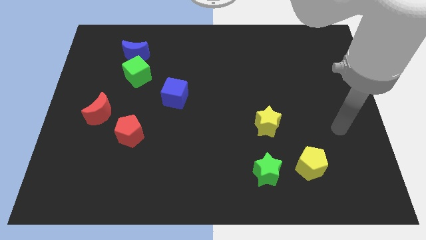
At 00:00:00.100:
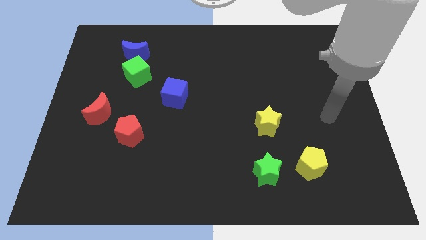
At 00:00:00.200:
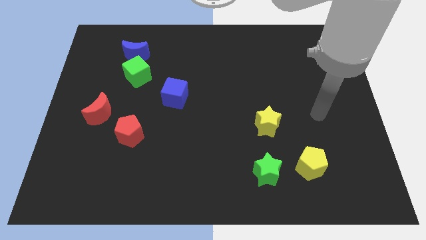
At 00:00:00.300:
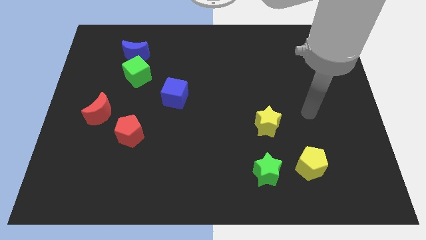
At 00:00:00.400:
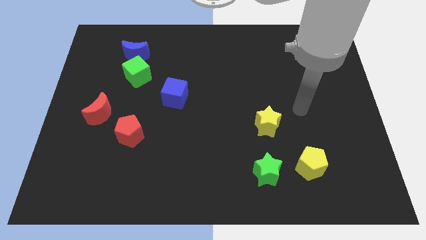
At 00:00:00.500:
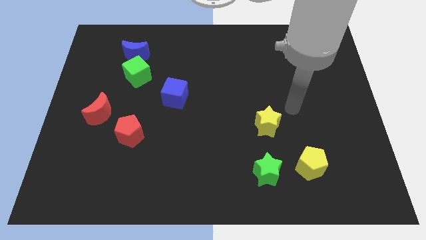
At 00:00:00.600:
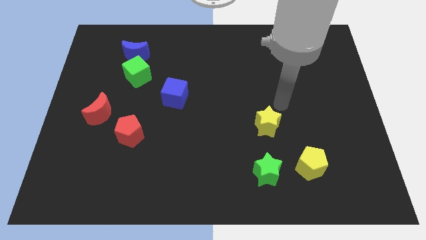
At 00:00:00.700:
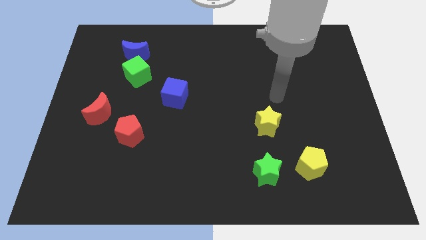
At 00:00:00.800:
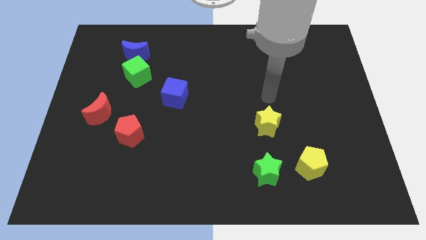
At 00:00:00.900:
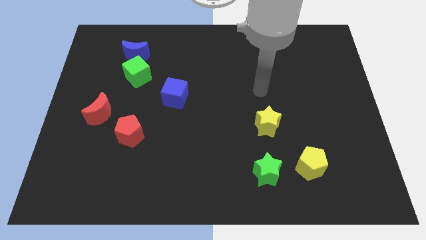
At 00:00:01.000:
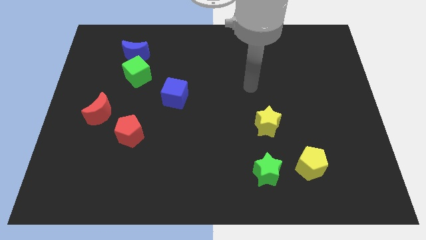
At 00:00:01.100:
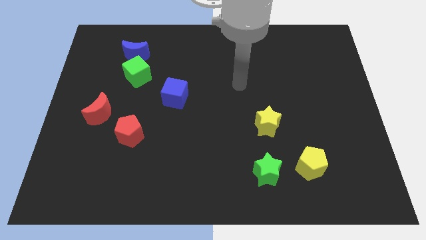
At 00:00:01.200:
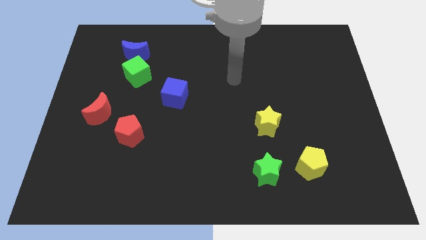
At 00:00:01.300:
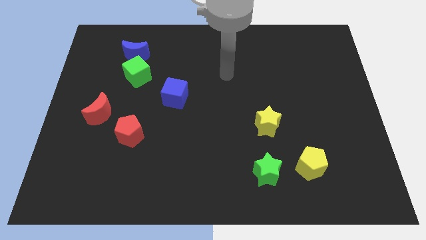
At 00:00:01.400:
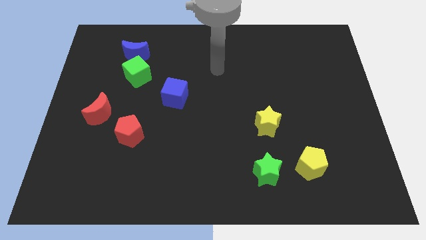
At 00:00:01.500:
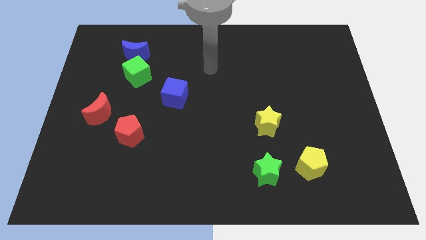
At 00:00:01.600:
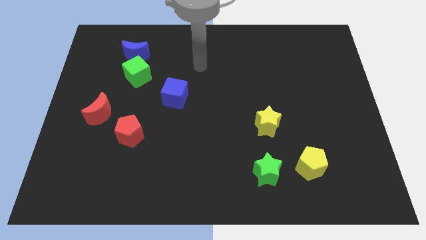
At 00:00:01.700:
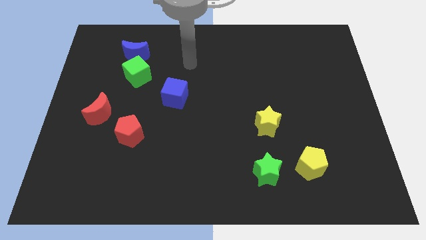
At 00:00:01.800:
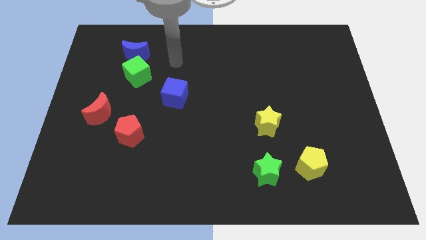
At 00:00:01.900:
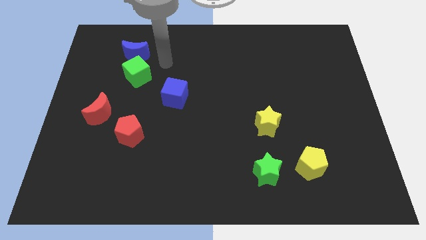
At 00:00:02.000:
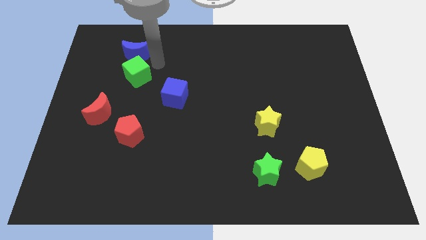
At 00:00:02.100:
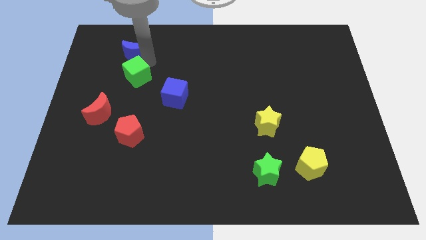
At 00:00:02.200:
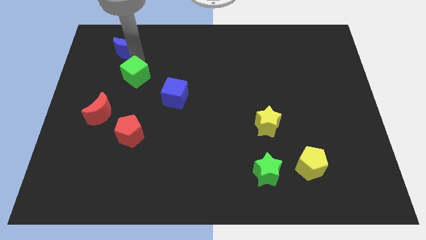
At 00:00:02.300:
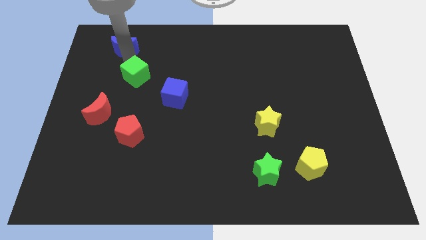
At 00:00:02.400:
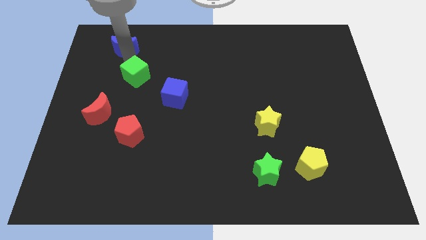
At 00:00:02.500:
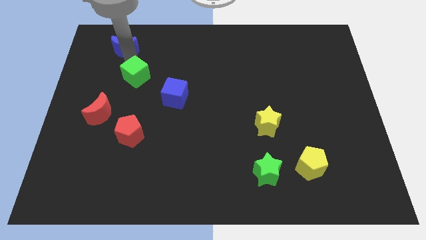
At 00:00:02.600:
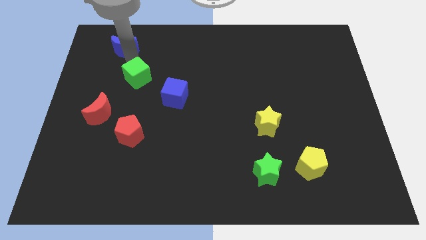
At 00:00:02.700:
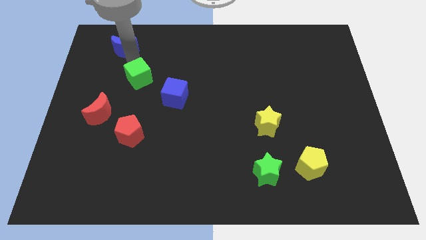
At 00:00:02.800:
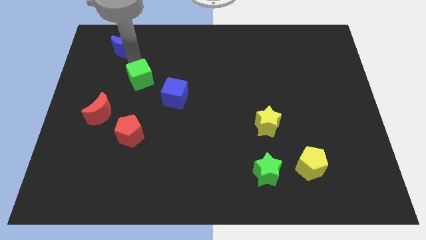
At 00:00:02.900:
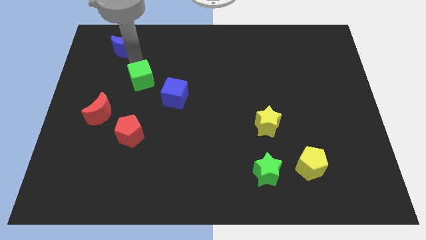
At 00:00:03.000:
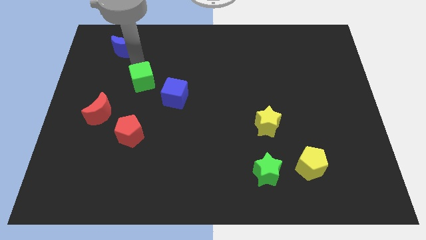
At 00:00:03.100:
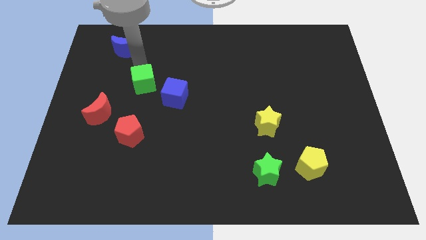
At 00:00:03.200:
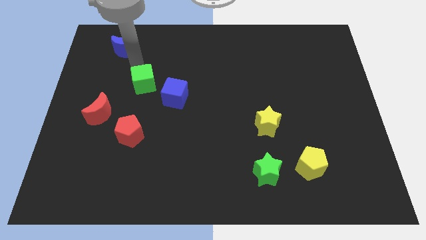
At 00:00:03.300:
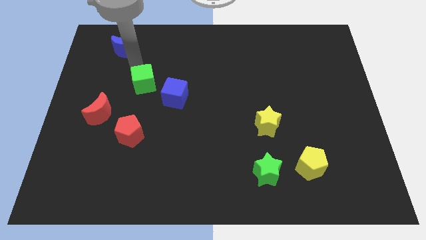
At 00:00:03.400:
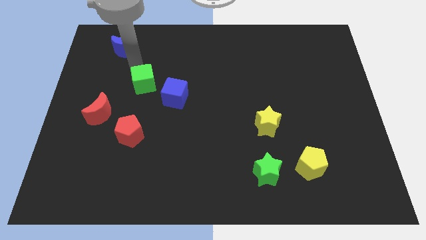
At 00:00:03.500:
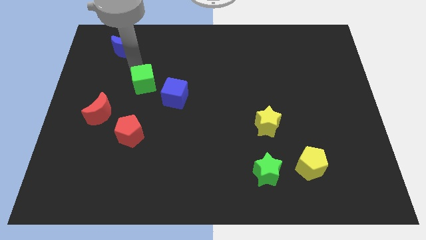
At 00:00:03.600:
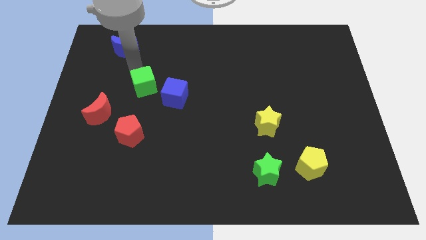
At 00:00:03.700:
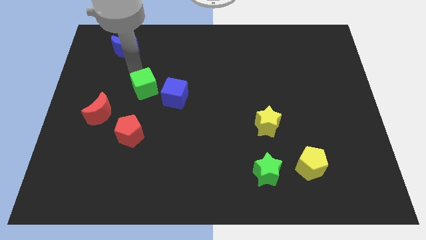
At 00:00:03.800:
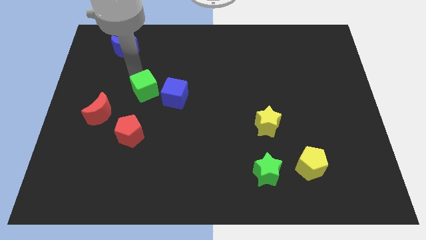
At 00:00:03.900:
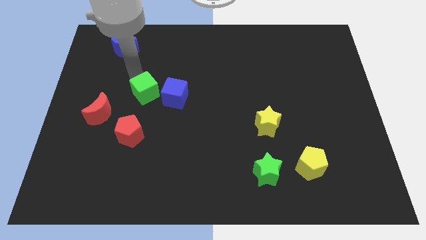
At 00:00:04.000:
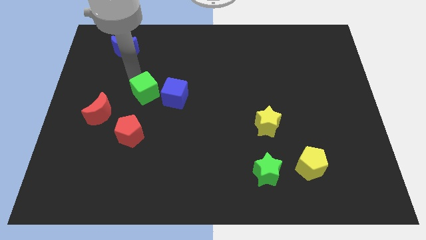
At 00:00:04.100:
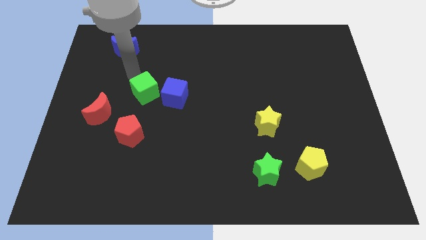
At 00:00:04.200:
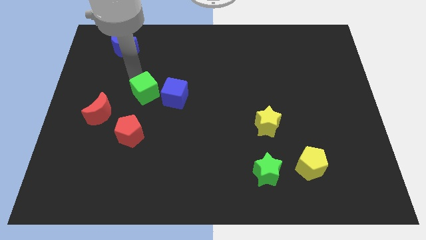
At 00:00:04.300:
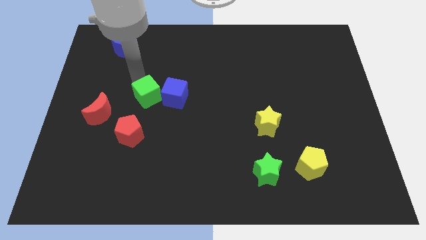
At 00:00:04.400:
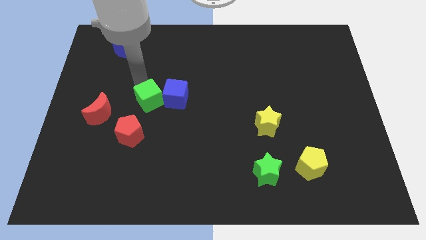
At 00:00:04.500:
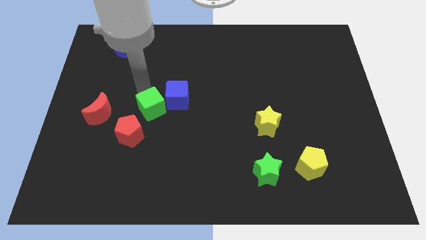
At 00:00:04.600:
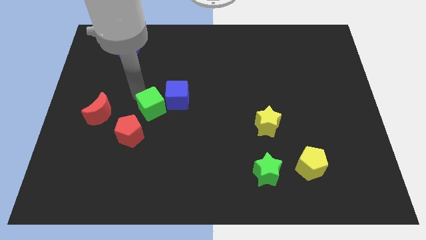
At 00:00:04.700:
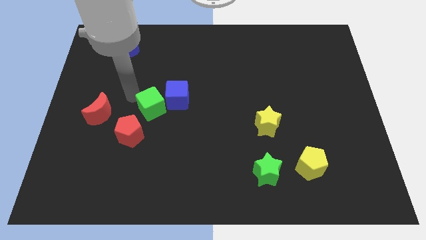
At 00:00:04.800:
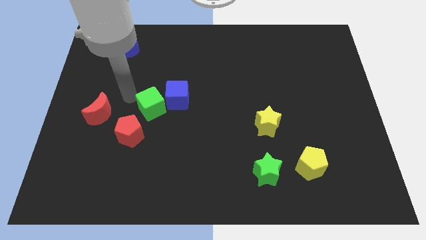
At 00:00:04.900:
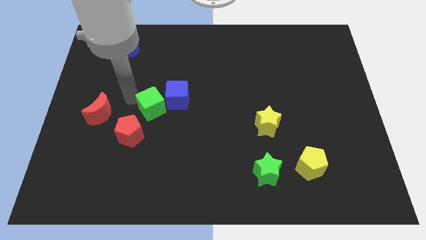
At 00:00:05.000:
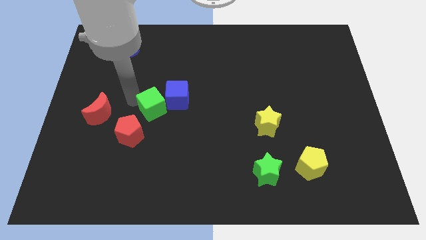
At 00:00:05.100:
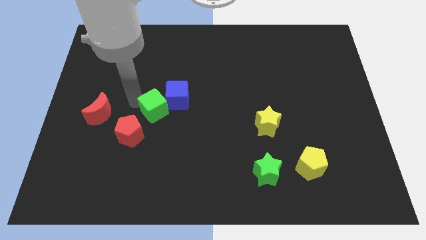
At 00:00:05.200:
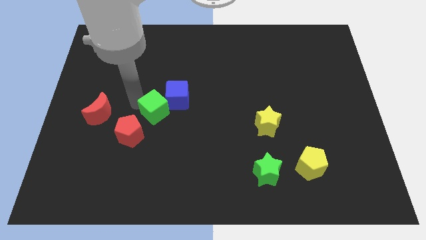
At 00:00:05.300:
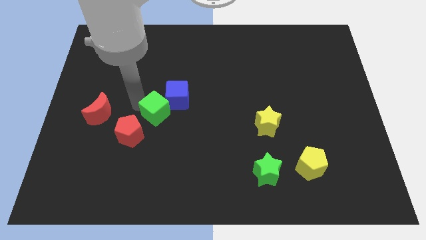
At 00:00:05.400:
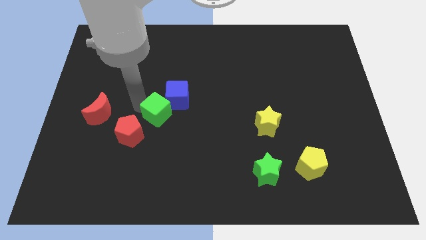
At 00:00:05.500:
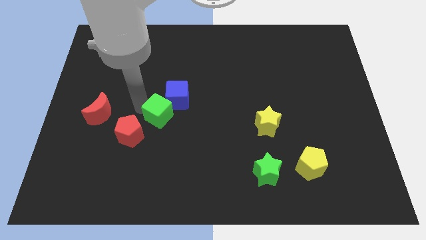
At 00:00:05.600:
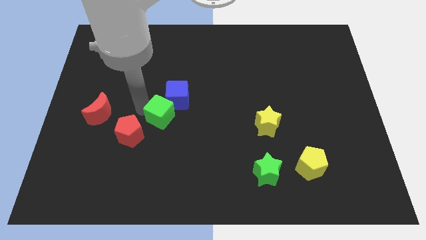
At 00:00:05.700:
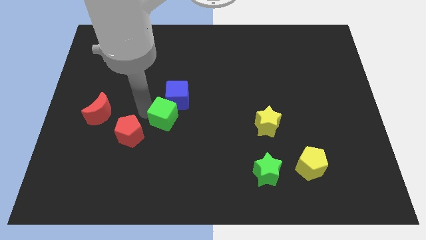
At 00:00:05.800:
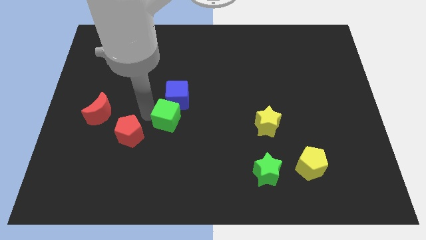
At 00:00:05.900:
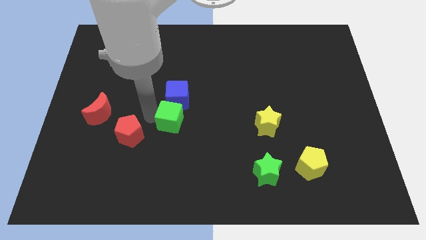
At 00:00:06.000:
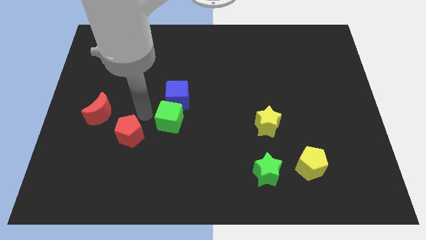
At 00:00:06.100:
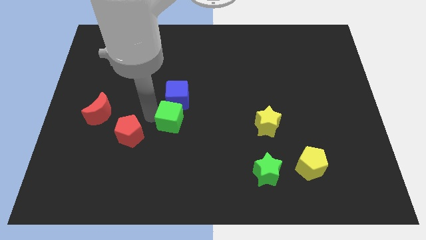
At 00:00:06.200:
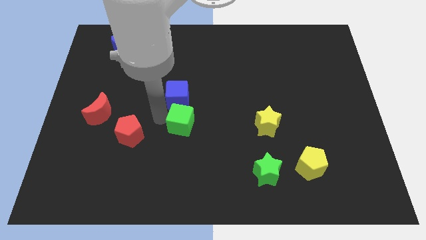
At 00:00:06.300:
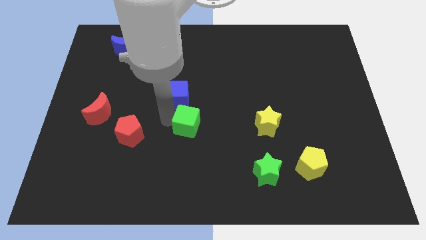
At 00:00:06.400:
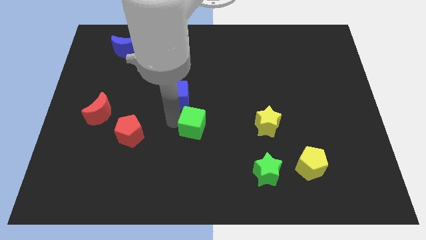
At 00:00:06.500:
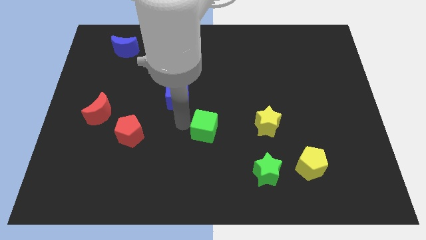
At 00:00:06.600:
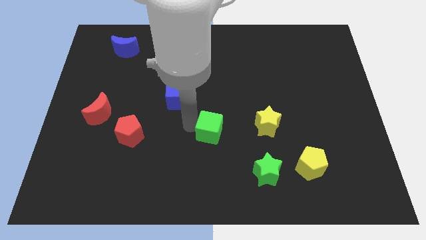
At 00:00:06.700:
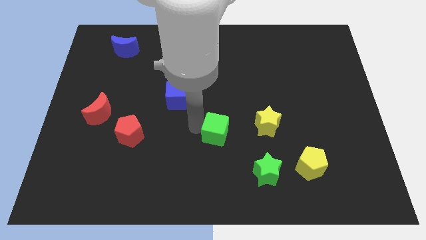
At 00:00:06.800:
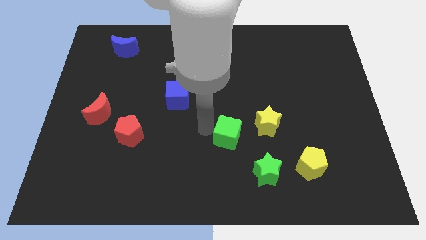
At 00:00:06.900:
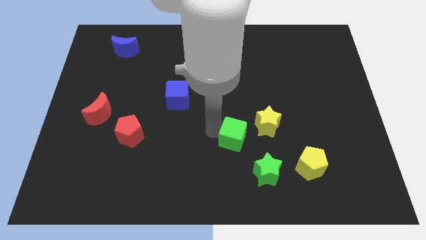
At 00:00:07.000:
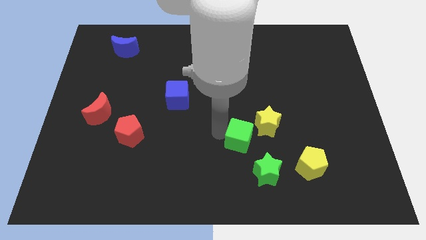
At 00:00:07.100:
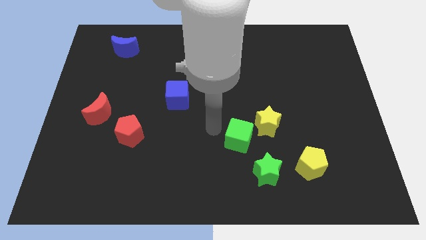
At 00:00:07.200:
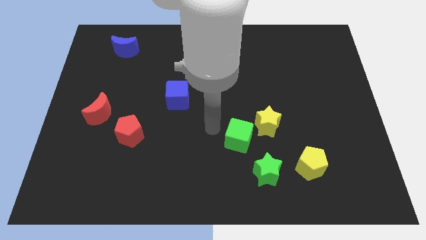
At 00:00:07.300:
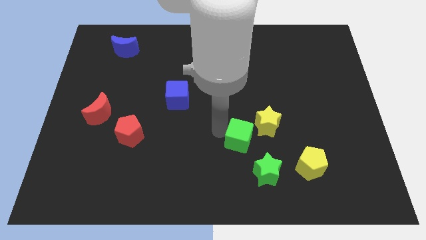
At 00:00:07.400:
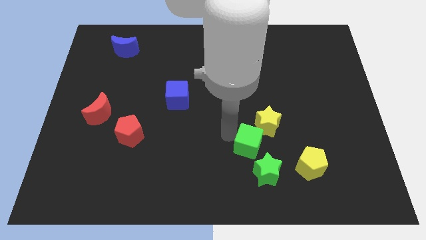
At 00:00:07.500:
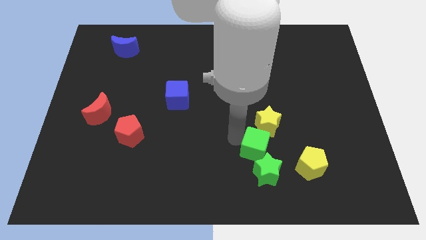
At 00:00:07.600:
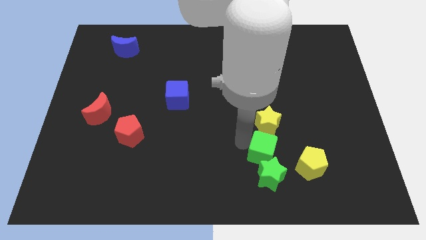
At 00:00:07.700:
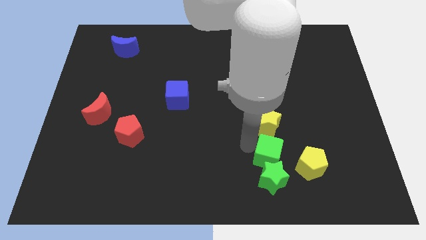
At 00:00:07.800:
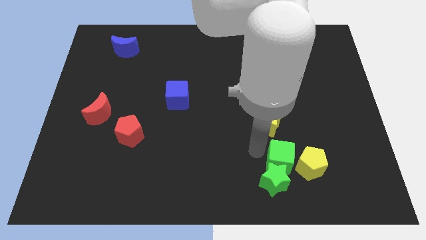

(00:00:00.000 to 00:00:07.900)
move the green cube to the yellow pentagon
